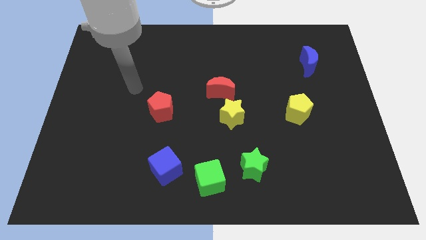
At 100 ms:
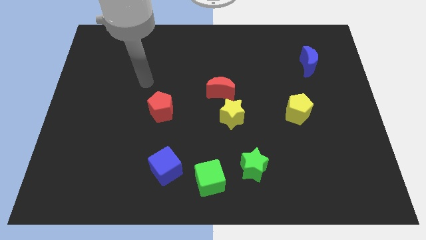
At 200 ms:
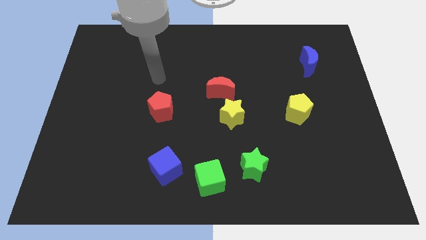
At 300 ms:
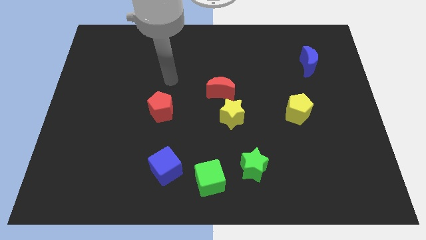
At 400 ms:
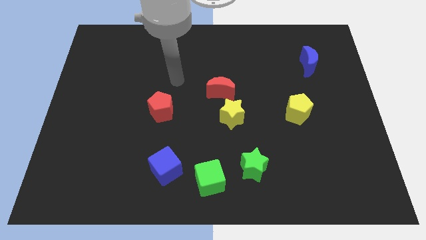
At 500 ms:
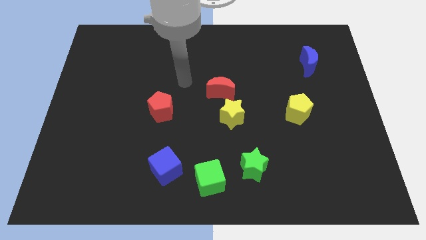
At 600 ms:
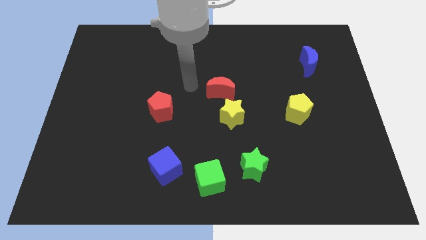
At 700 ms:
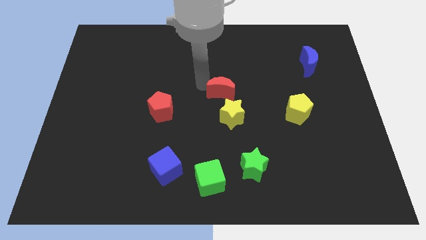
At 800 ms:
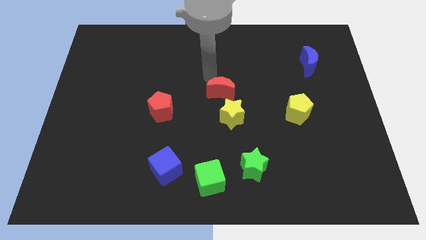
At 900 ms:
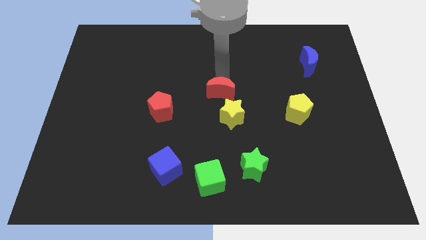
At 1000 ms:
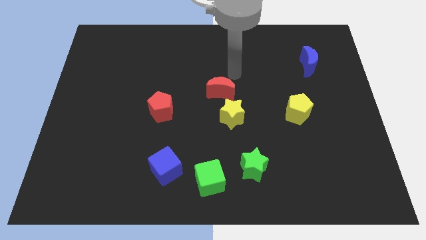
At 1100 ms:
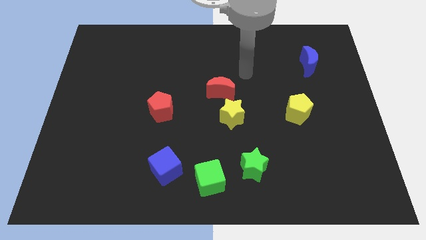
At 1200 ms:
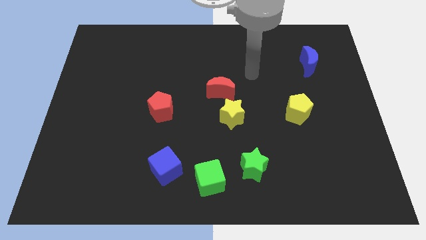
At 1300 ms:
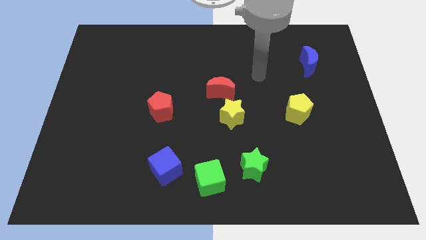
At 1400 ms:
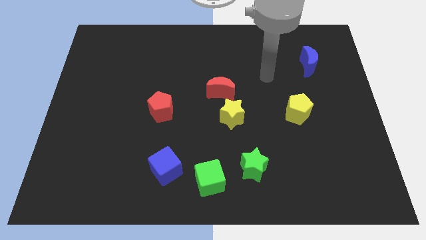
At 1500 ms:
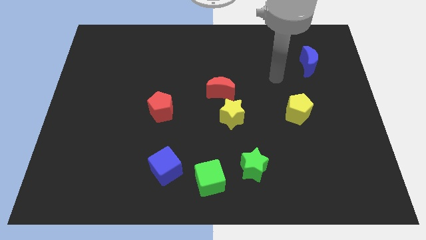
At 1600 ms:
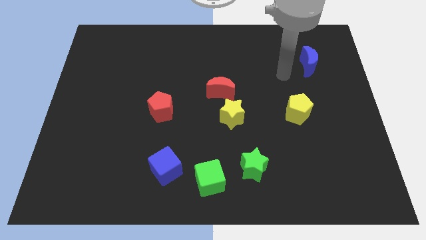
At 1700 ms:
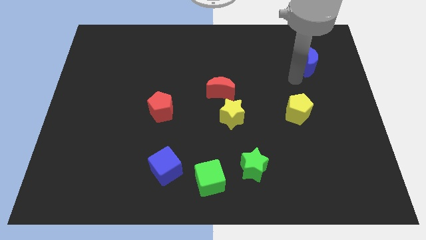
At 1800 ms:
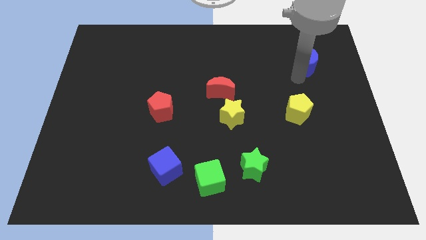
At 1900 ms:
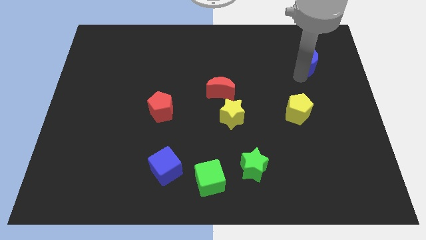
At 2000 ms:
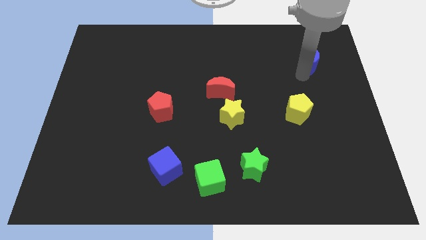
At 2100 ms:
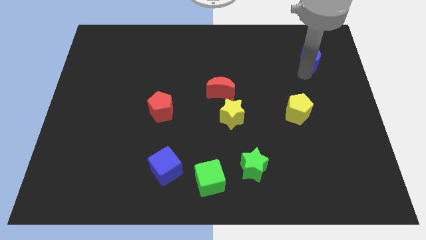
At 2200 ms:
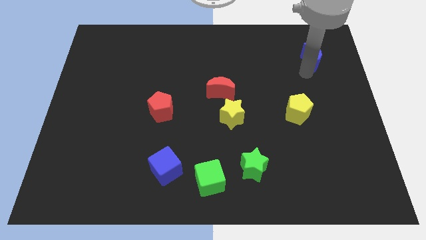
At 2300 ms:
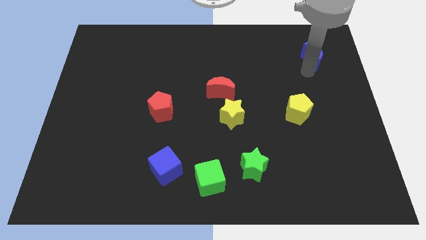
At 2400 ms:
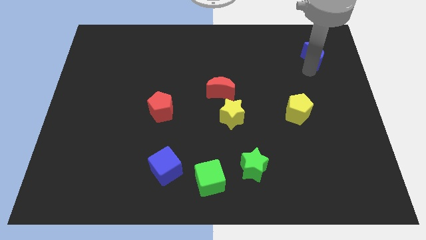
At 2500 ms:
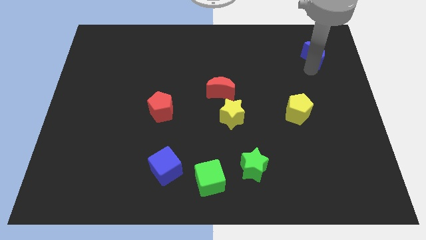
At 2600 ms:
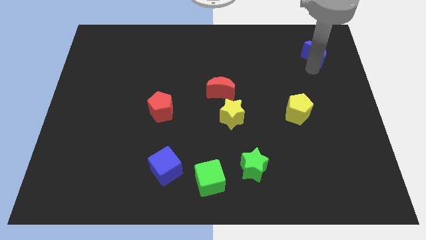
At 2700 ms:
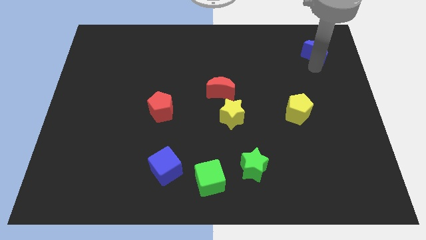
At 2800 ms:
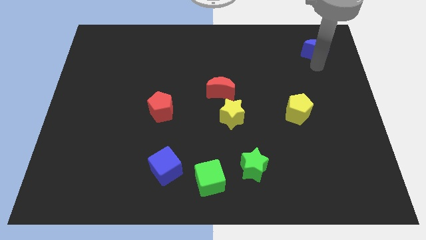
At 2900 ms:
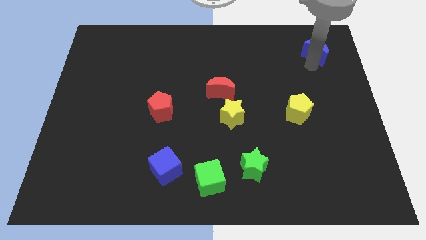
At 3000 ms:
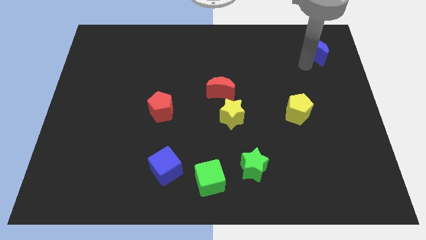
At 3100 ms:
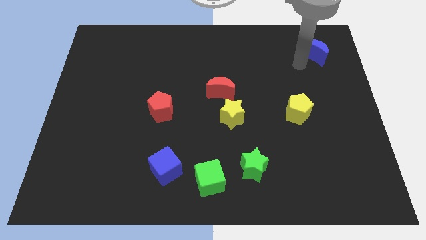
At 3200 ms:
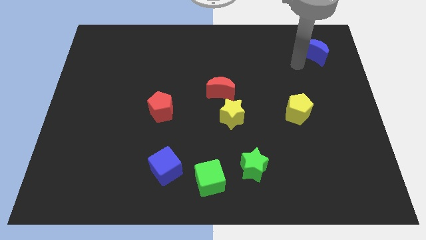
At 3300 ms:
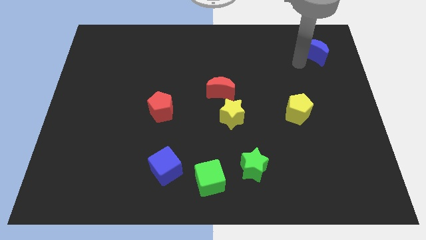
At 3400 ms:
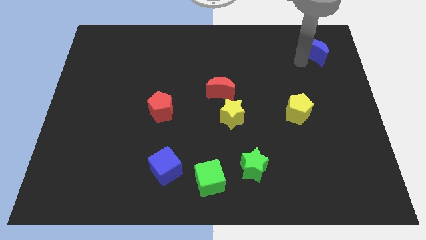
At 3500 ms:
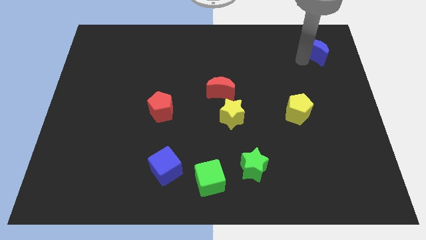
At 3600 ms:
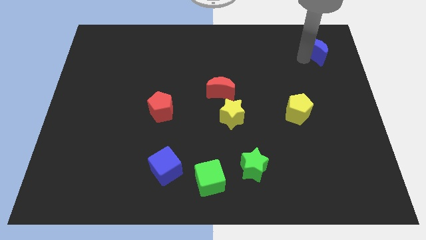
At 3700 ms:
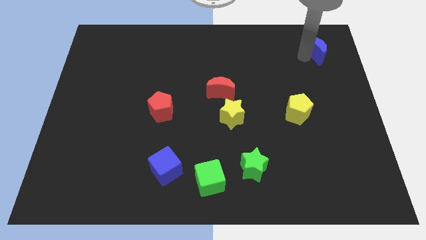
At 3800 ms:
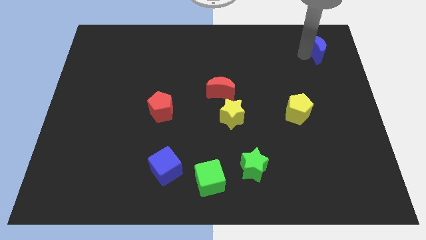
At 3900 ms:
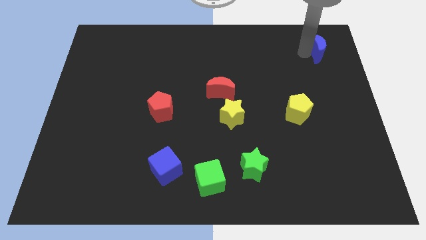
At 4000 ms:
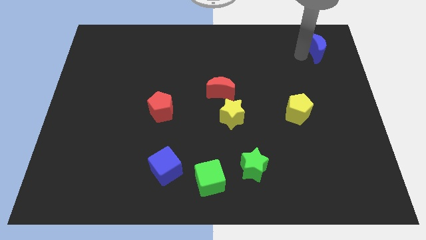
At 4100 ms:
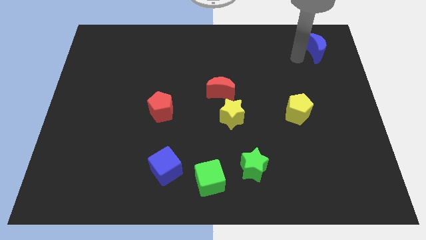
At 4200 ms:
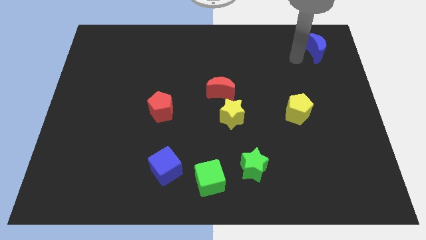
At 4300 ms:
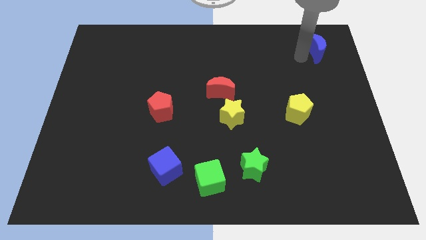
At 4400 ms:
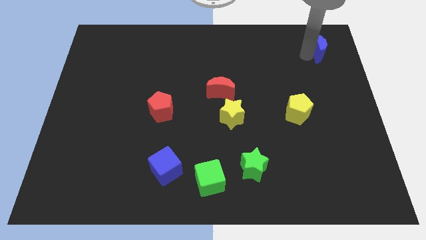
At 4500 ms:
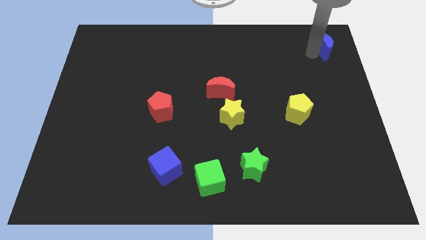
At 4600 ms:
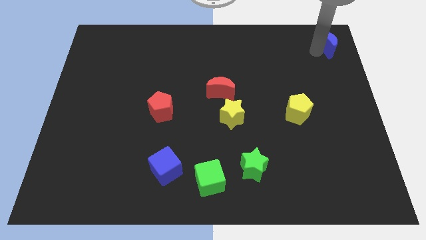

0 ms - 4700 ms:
move the blue moon to the top right corner

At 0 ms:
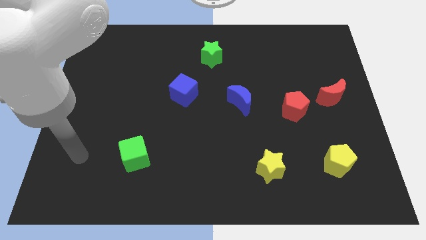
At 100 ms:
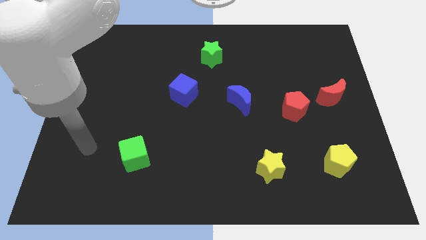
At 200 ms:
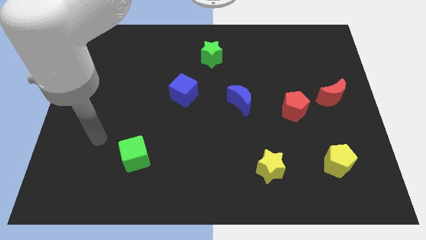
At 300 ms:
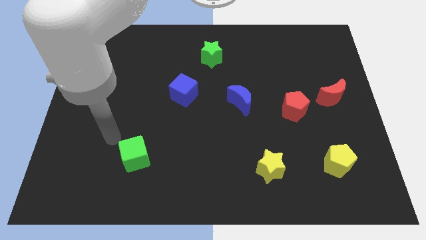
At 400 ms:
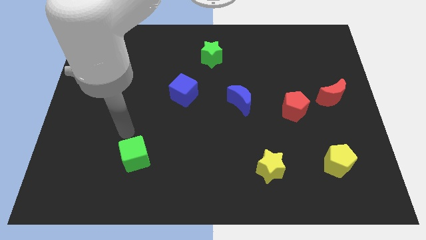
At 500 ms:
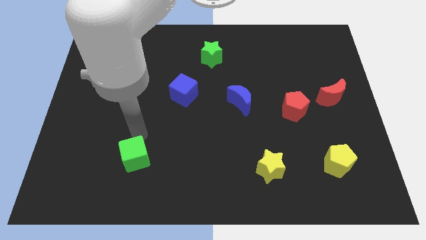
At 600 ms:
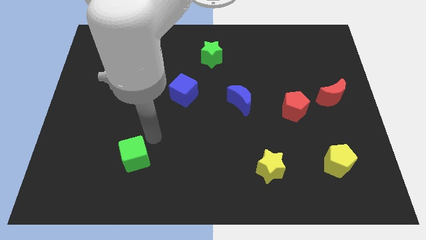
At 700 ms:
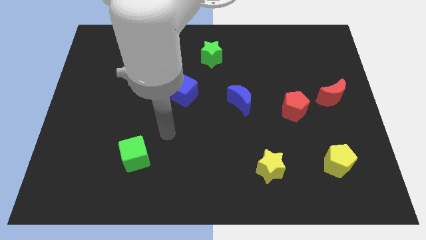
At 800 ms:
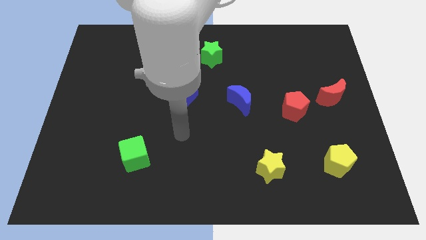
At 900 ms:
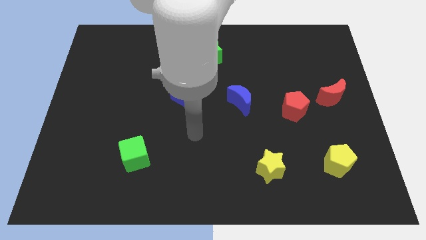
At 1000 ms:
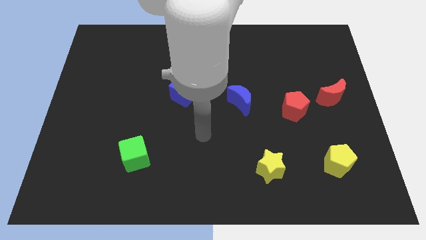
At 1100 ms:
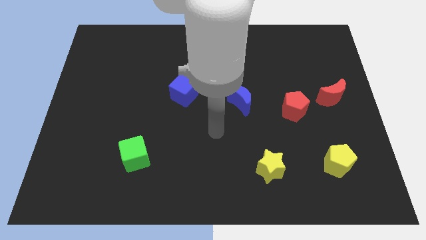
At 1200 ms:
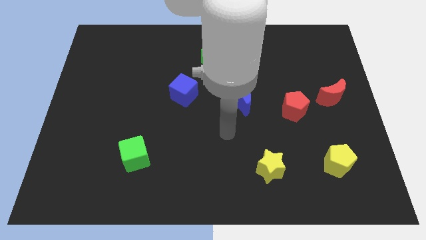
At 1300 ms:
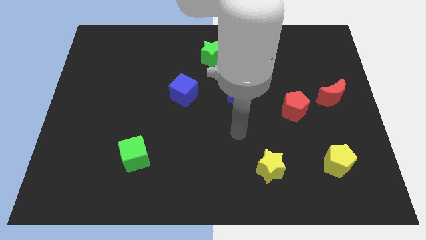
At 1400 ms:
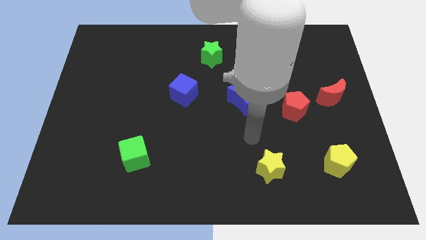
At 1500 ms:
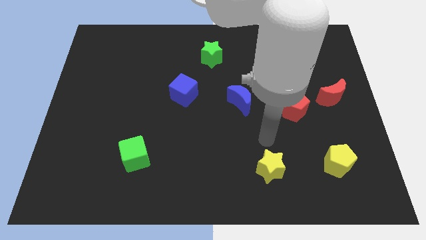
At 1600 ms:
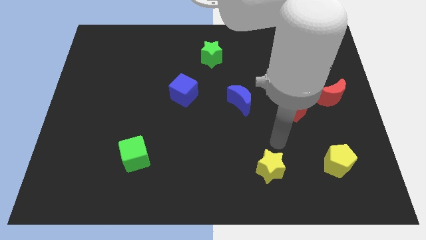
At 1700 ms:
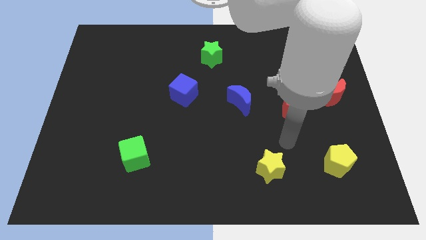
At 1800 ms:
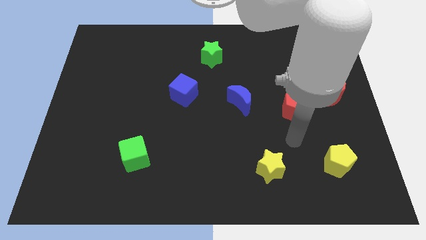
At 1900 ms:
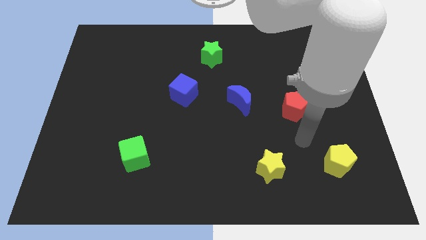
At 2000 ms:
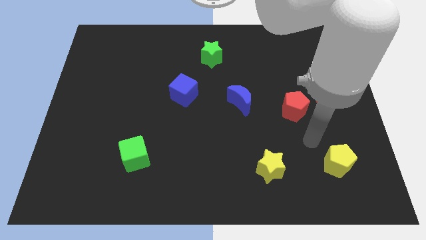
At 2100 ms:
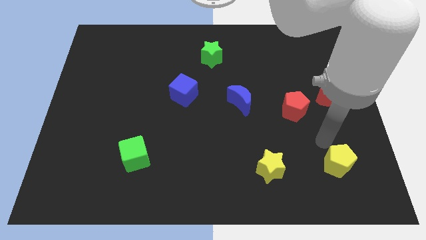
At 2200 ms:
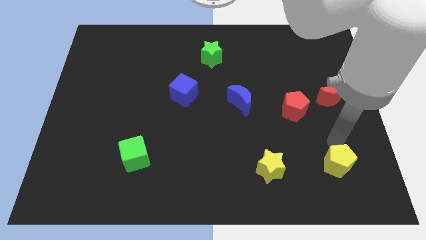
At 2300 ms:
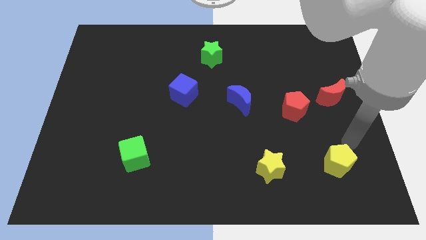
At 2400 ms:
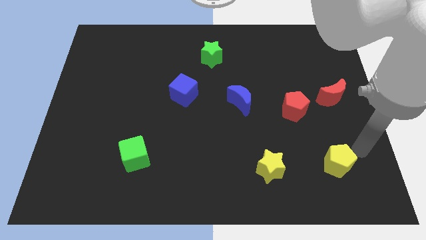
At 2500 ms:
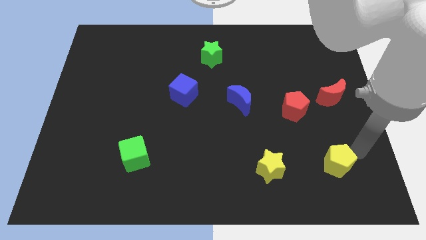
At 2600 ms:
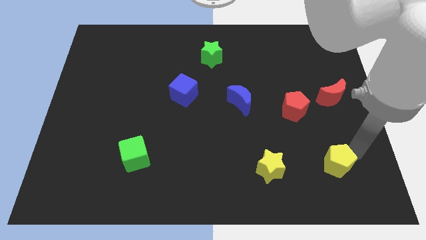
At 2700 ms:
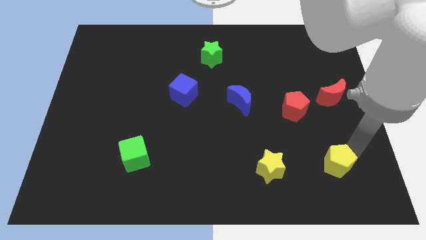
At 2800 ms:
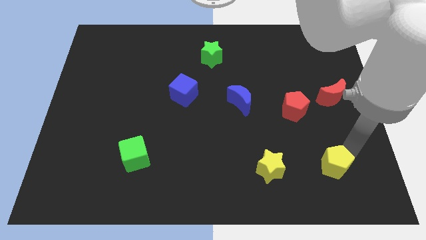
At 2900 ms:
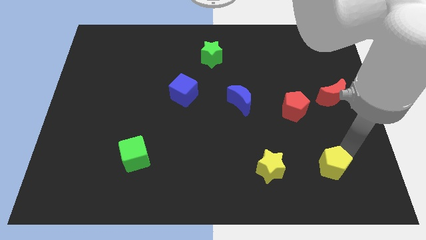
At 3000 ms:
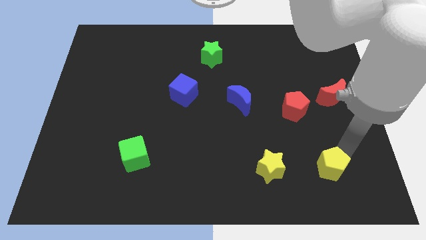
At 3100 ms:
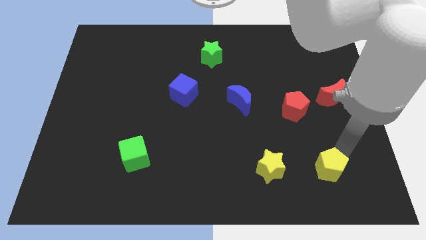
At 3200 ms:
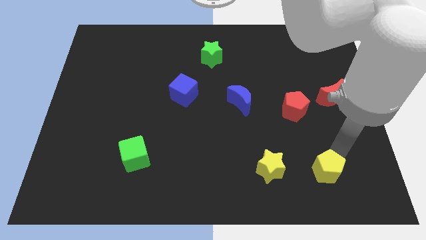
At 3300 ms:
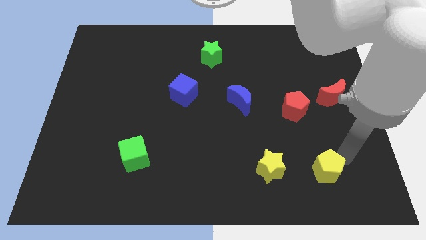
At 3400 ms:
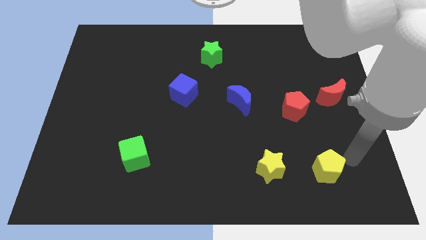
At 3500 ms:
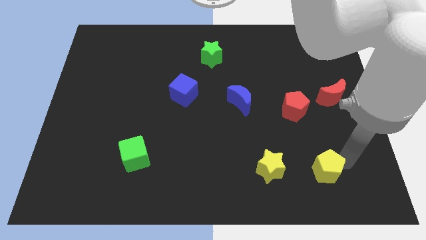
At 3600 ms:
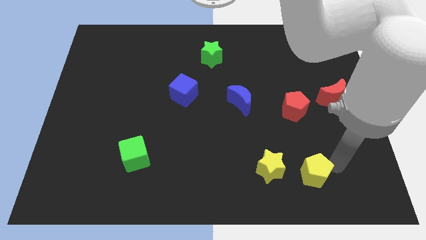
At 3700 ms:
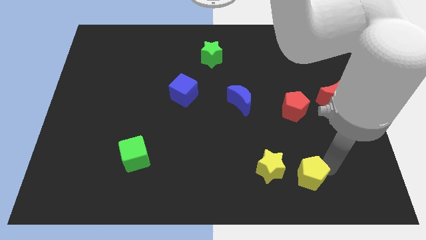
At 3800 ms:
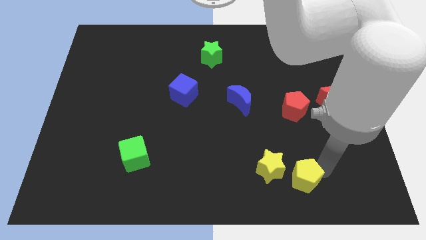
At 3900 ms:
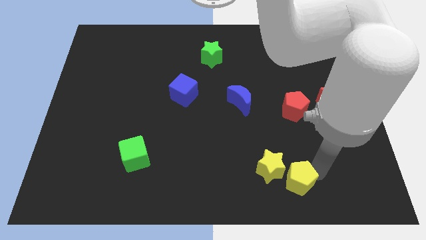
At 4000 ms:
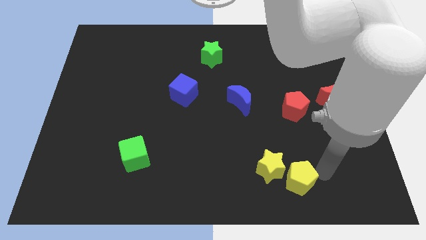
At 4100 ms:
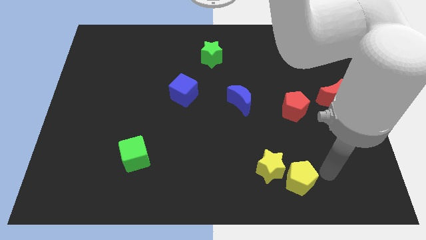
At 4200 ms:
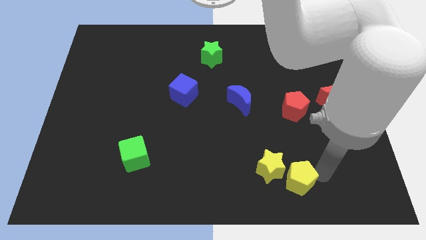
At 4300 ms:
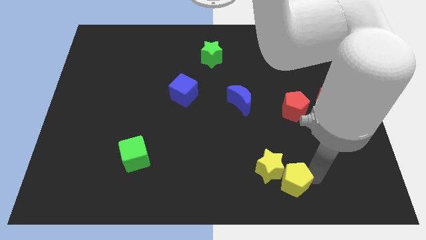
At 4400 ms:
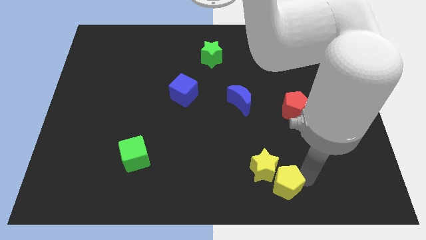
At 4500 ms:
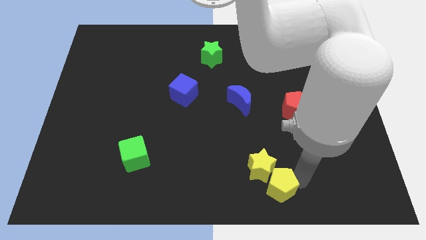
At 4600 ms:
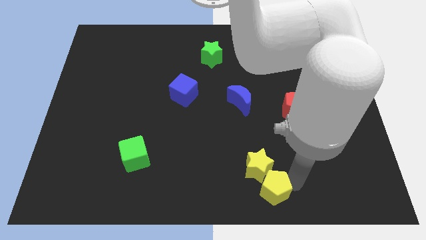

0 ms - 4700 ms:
push the yellow pentagon to the bottom side
